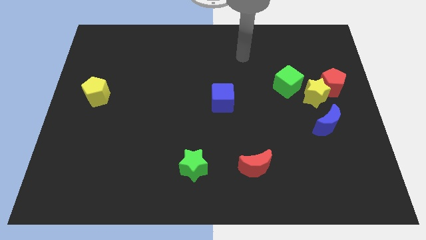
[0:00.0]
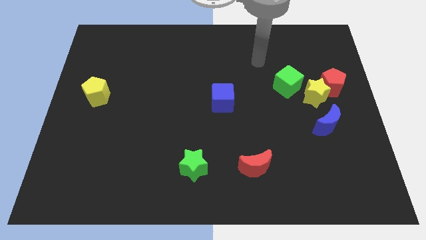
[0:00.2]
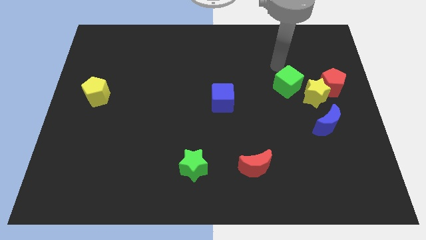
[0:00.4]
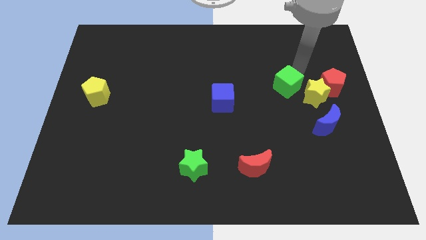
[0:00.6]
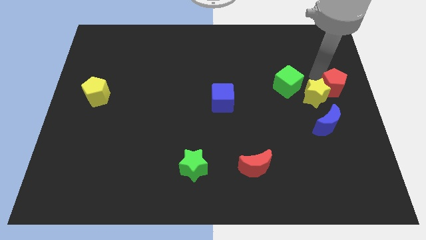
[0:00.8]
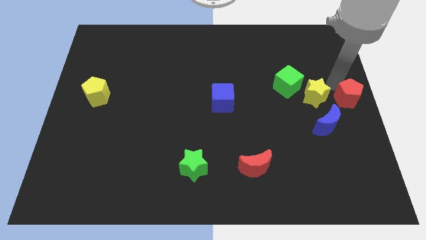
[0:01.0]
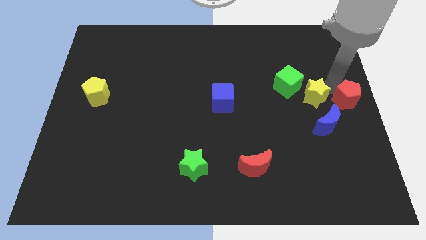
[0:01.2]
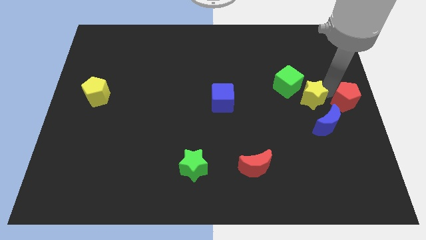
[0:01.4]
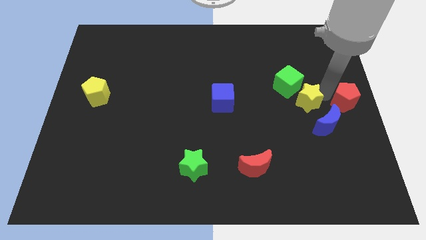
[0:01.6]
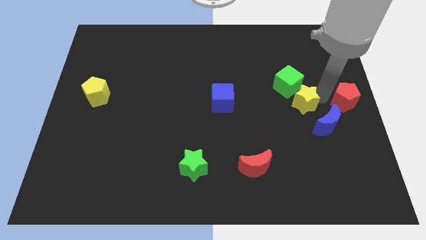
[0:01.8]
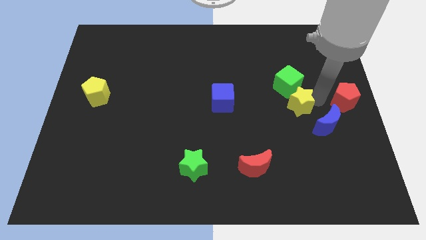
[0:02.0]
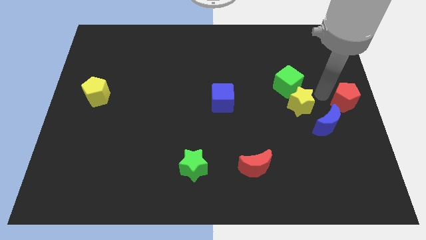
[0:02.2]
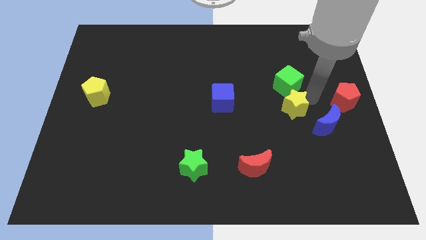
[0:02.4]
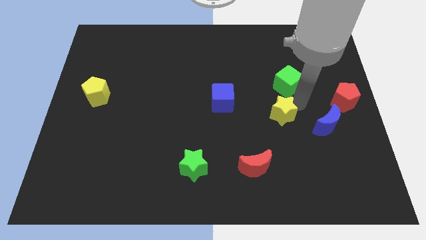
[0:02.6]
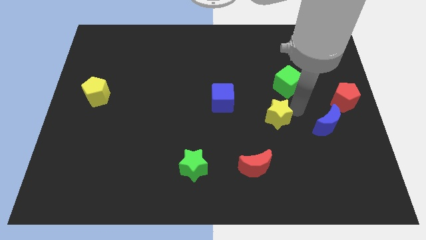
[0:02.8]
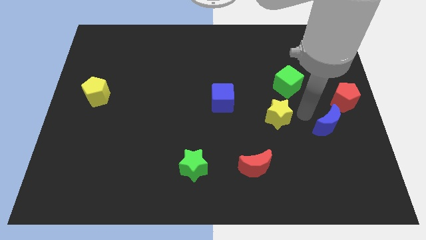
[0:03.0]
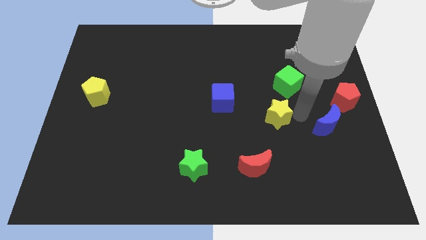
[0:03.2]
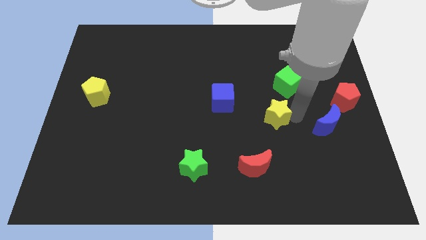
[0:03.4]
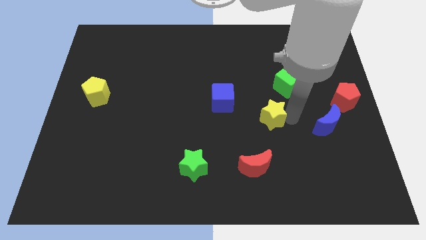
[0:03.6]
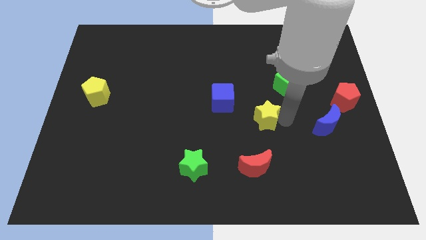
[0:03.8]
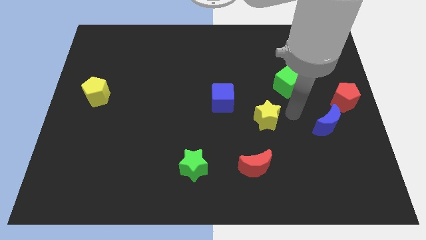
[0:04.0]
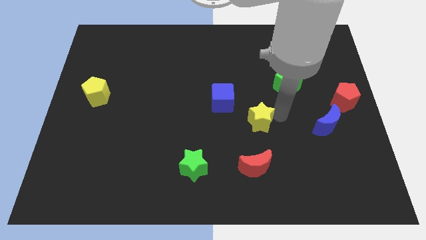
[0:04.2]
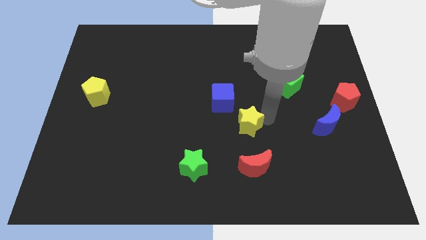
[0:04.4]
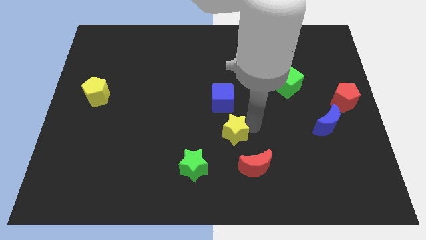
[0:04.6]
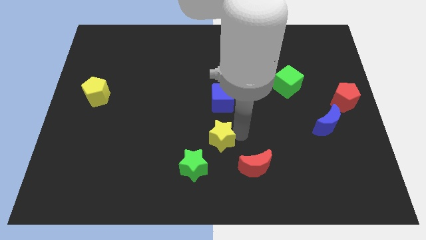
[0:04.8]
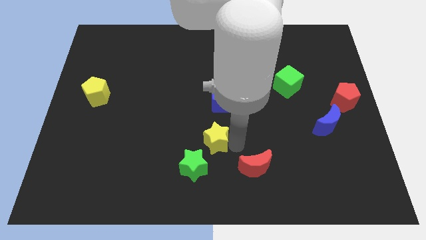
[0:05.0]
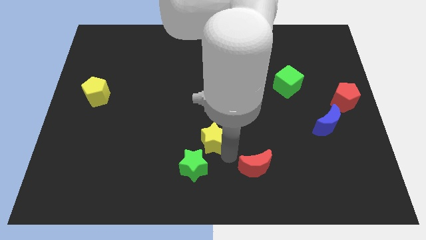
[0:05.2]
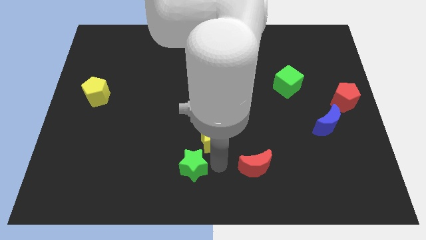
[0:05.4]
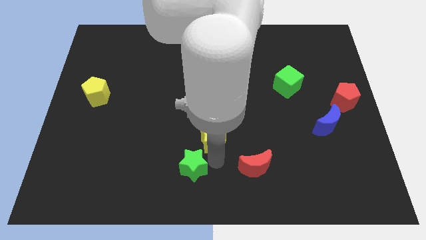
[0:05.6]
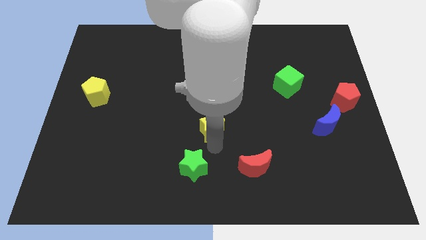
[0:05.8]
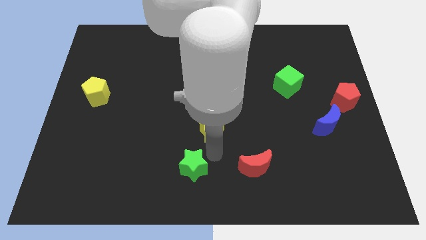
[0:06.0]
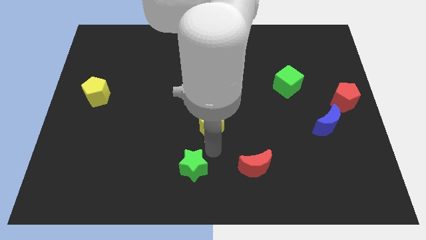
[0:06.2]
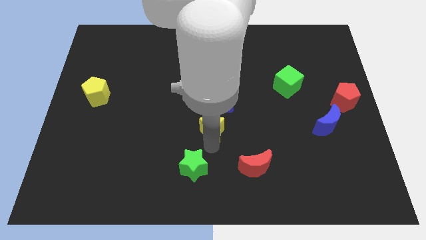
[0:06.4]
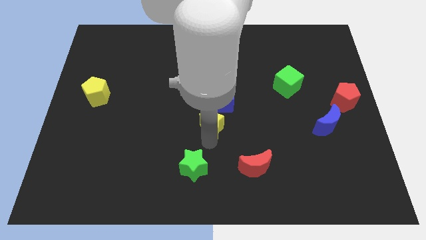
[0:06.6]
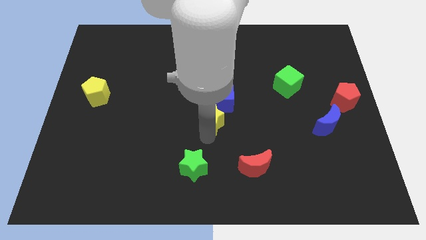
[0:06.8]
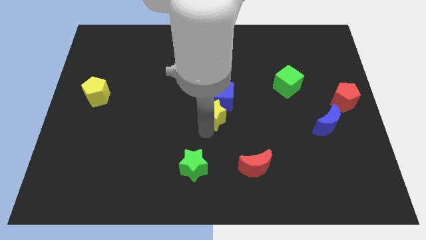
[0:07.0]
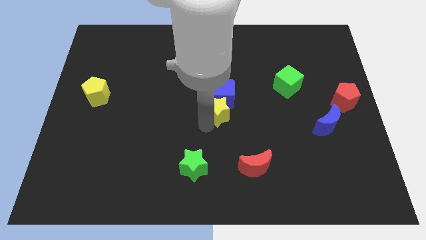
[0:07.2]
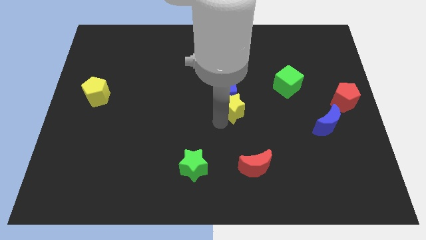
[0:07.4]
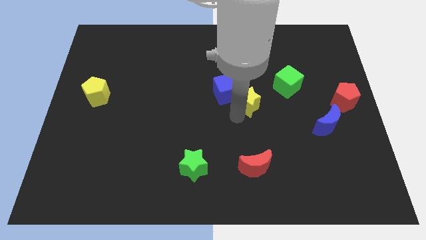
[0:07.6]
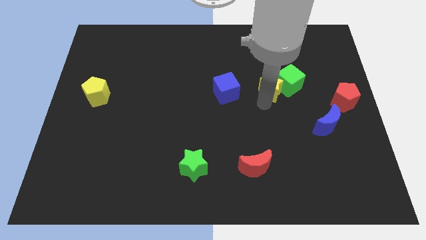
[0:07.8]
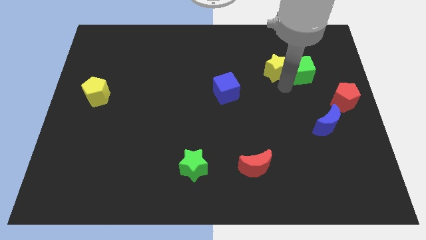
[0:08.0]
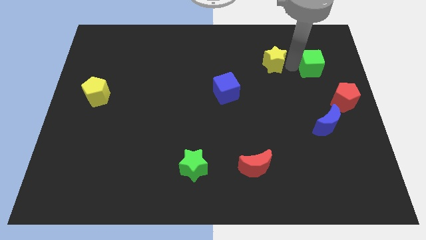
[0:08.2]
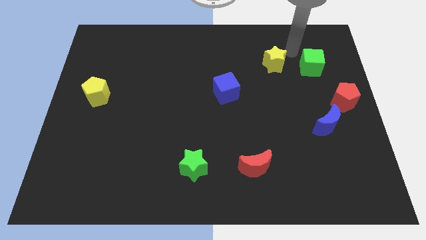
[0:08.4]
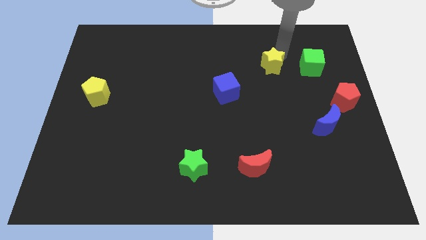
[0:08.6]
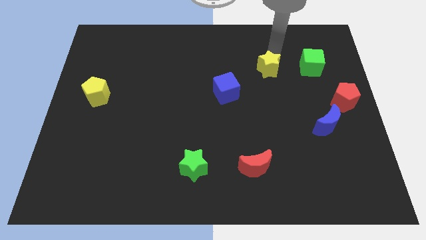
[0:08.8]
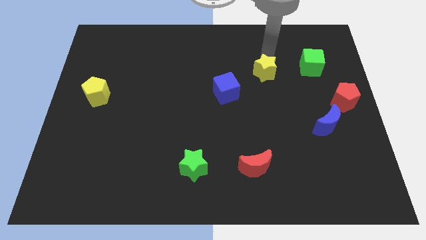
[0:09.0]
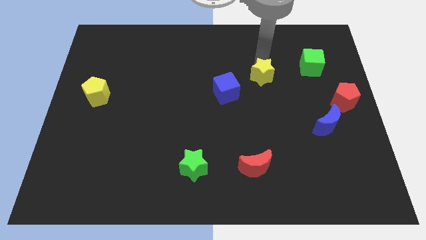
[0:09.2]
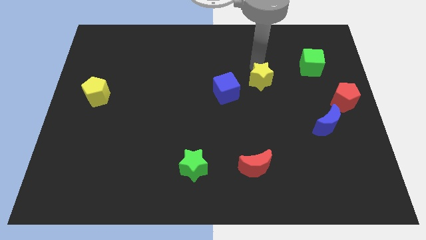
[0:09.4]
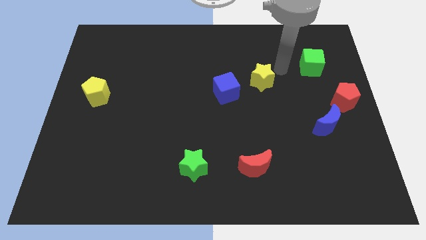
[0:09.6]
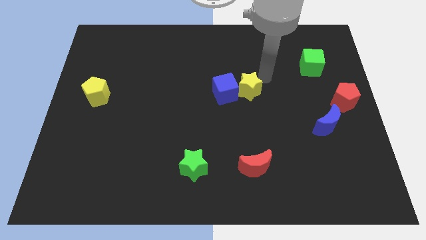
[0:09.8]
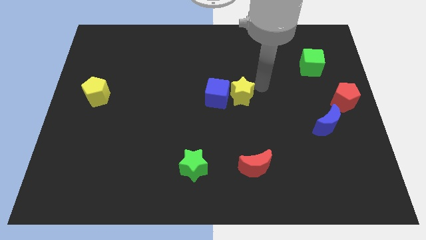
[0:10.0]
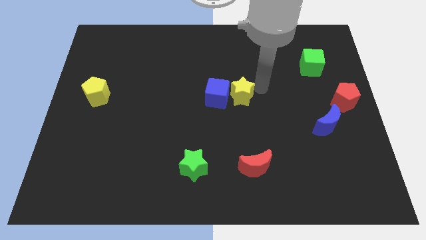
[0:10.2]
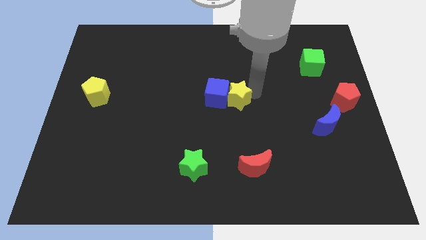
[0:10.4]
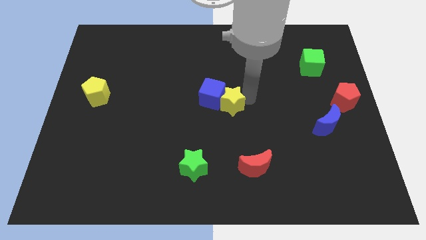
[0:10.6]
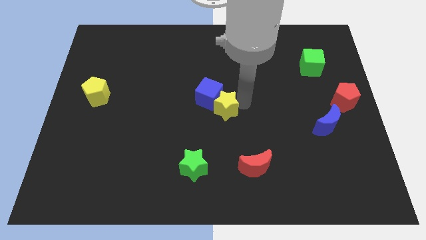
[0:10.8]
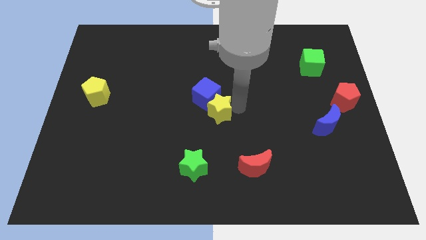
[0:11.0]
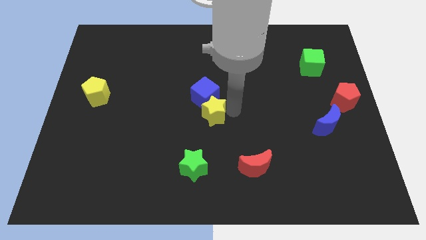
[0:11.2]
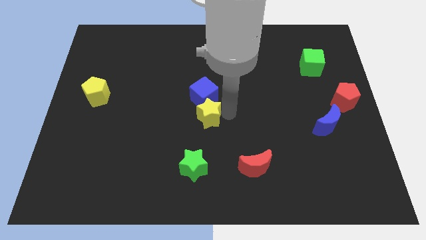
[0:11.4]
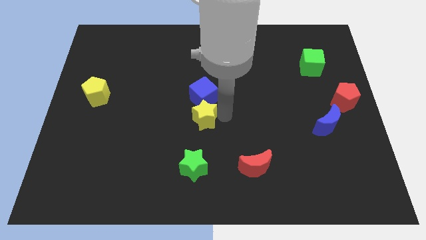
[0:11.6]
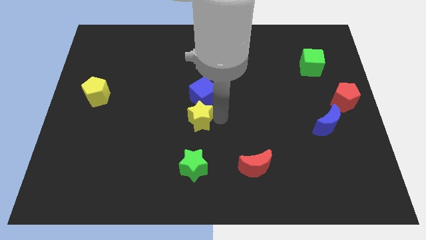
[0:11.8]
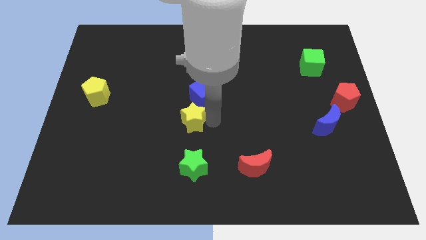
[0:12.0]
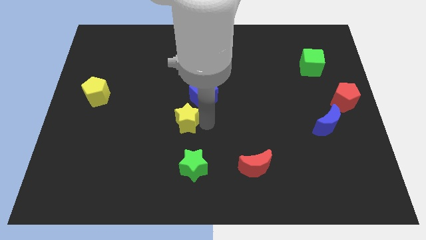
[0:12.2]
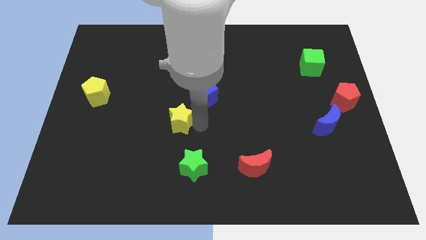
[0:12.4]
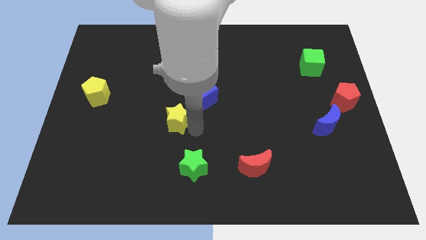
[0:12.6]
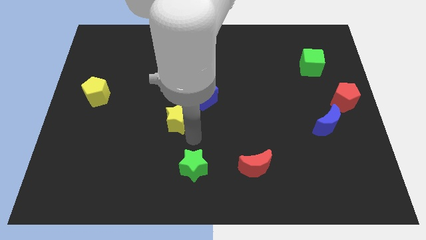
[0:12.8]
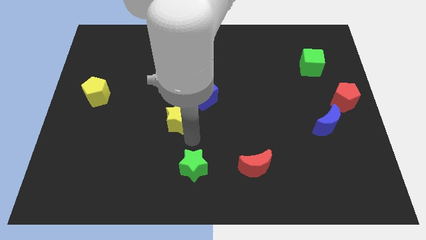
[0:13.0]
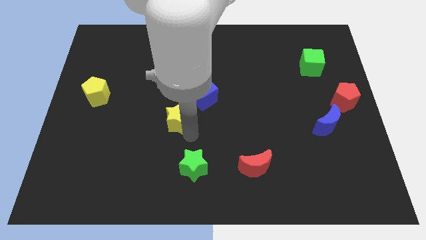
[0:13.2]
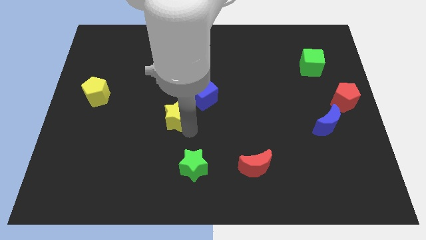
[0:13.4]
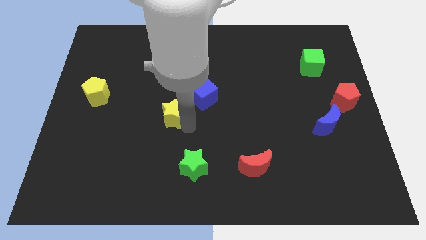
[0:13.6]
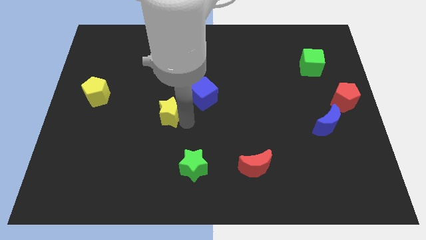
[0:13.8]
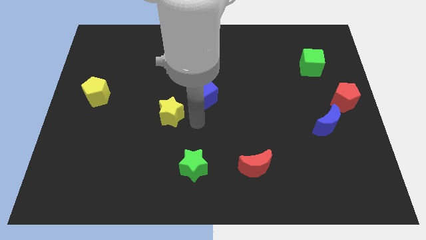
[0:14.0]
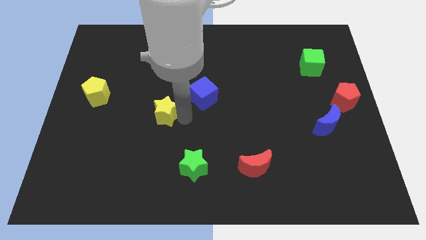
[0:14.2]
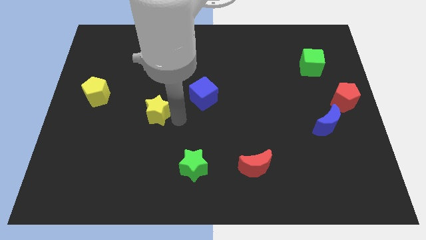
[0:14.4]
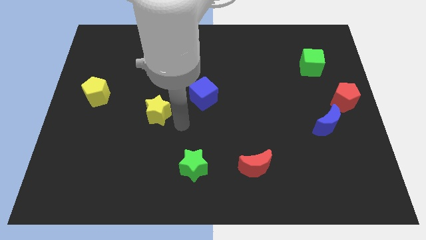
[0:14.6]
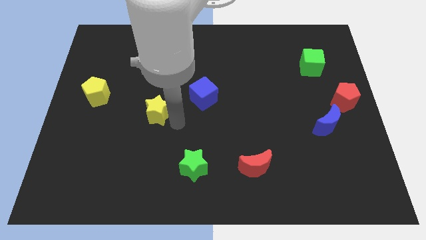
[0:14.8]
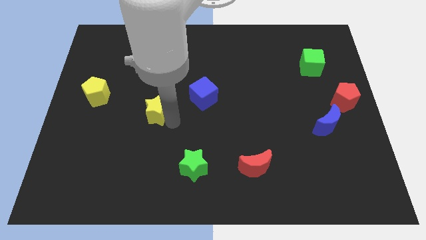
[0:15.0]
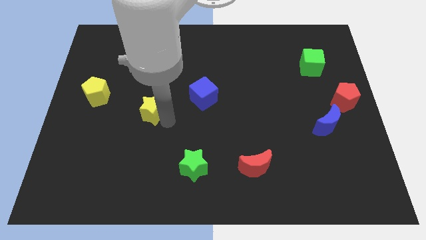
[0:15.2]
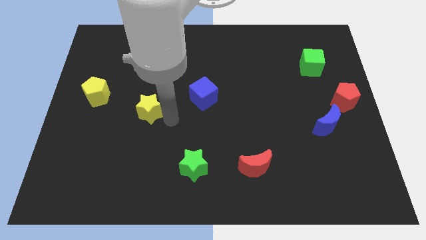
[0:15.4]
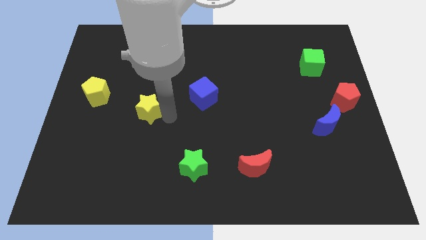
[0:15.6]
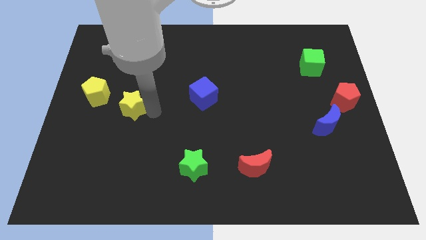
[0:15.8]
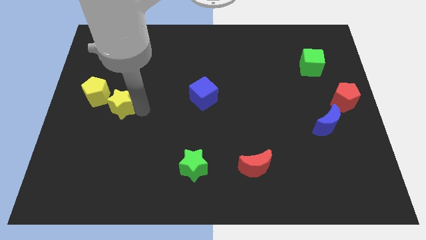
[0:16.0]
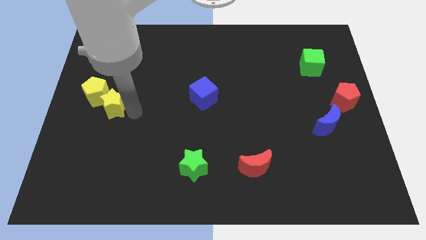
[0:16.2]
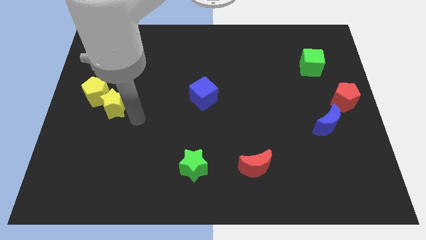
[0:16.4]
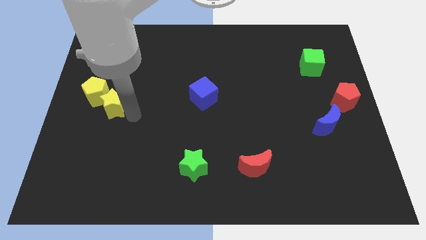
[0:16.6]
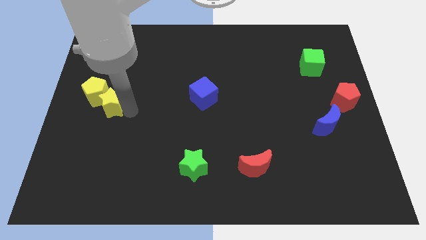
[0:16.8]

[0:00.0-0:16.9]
slide the yellow star next to the yellow pentagon
